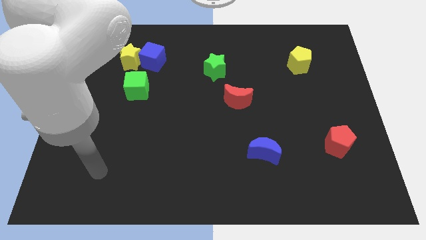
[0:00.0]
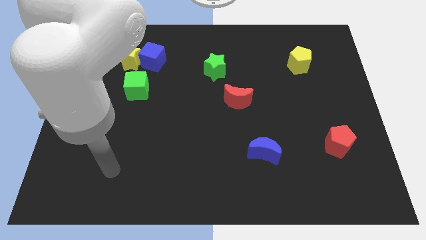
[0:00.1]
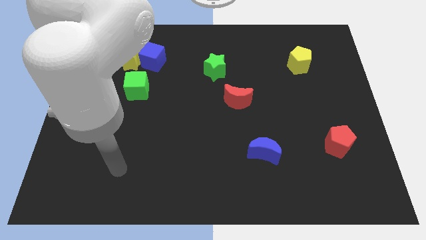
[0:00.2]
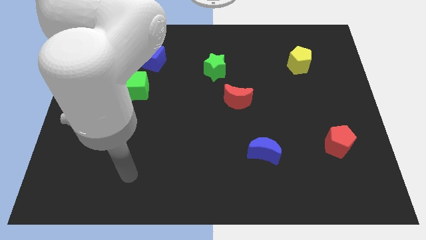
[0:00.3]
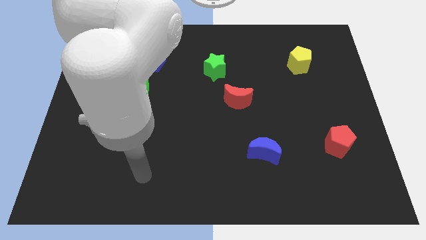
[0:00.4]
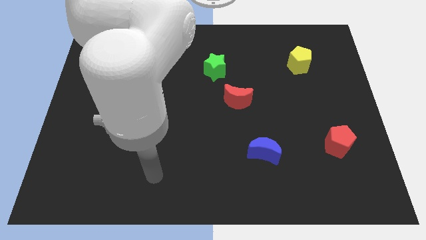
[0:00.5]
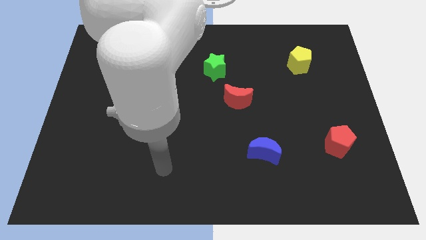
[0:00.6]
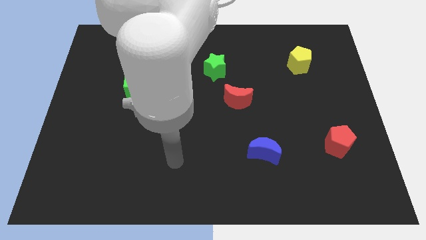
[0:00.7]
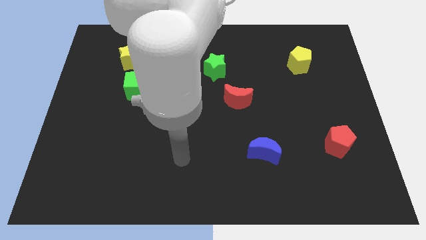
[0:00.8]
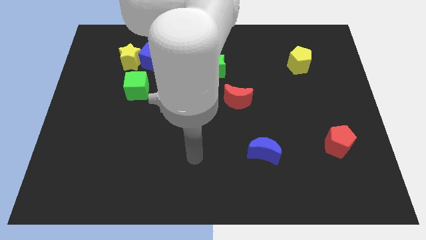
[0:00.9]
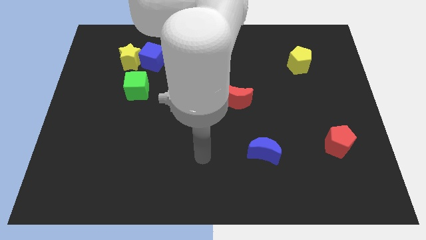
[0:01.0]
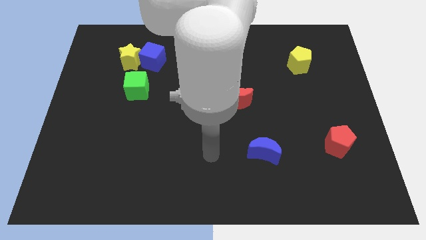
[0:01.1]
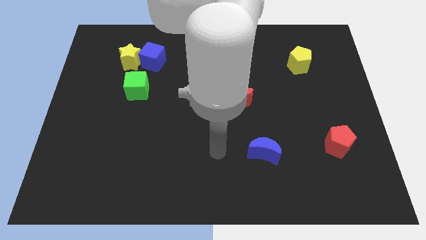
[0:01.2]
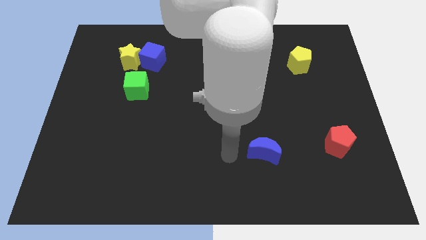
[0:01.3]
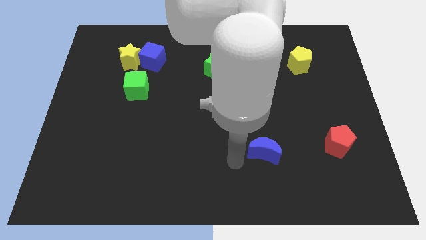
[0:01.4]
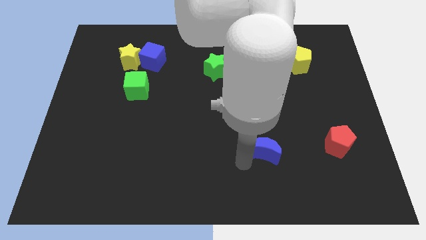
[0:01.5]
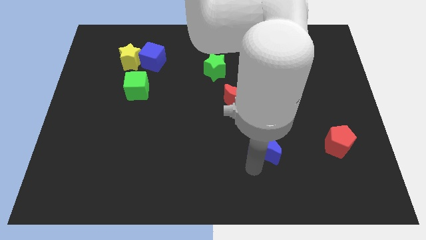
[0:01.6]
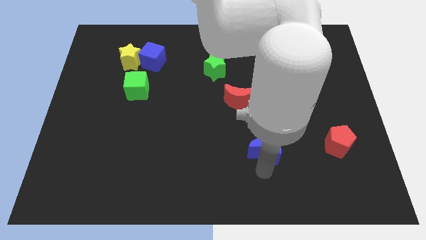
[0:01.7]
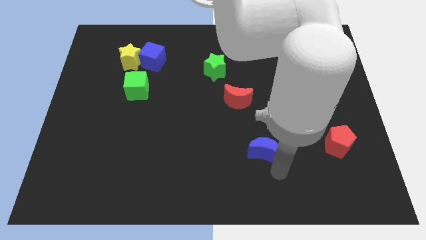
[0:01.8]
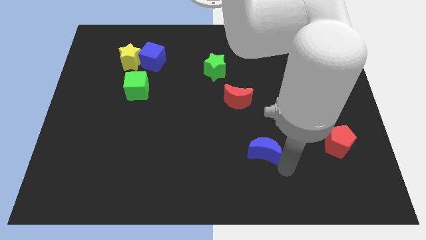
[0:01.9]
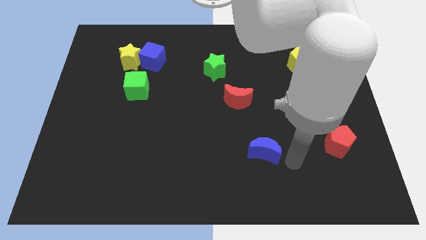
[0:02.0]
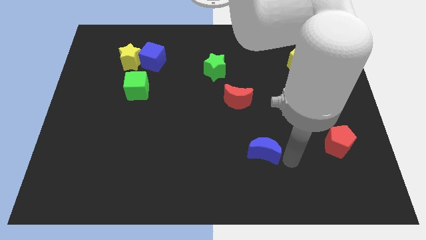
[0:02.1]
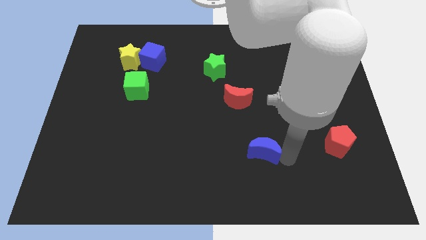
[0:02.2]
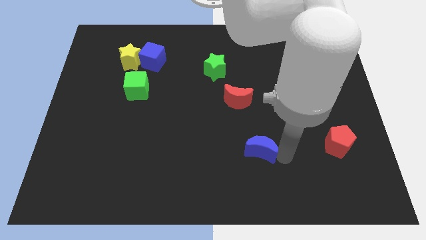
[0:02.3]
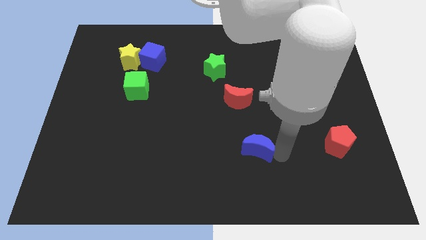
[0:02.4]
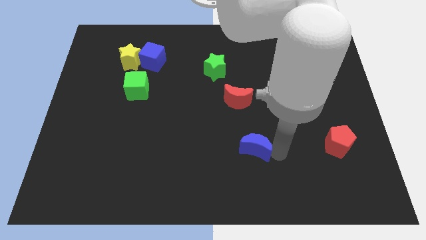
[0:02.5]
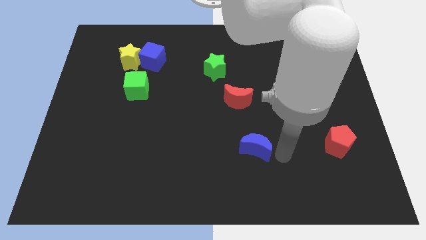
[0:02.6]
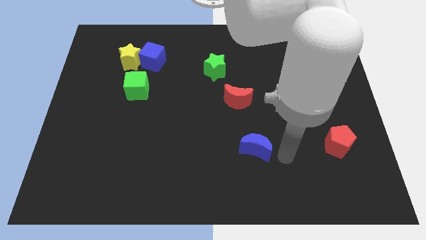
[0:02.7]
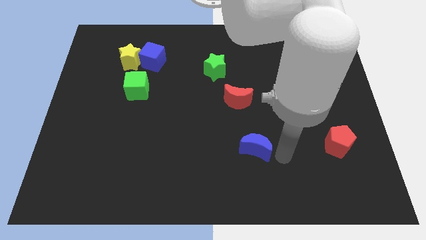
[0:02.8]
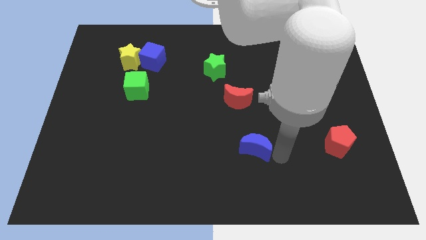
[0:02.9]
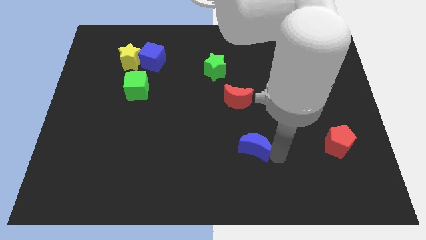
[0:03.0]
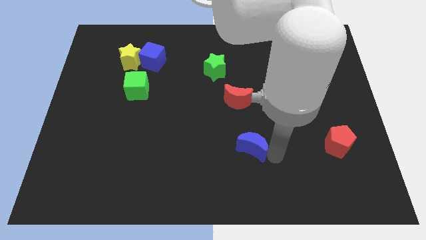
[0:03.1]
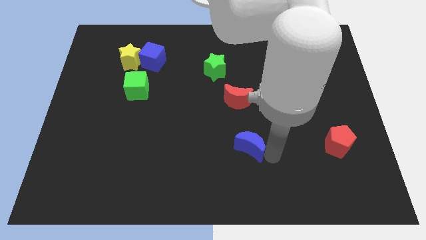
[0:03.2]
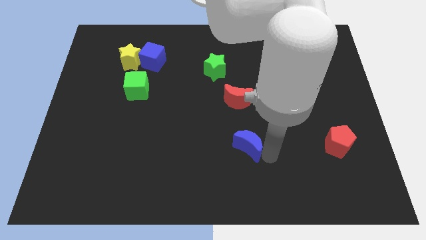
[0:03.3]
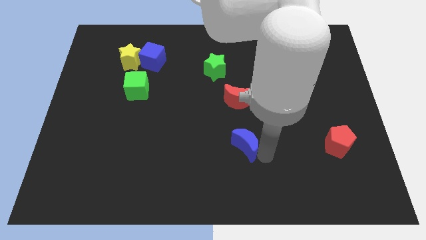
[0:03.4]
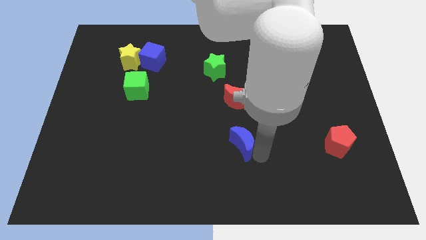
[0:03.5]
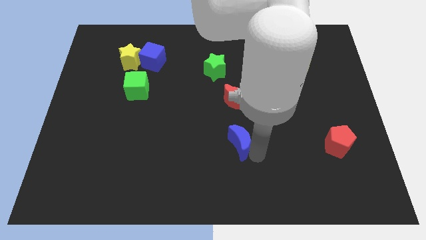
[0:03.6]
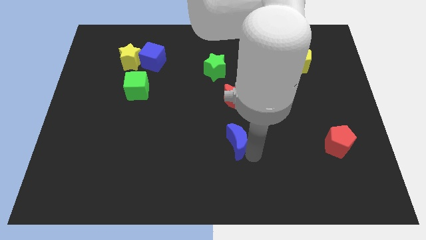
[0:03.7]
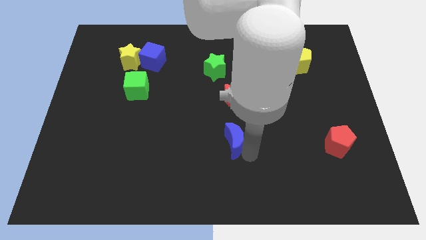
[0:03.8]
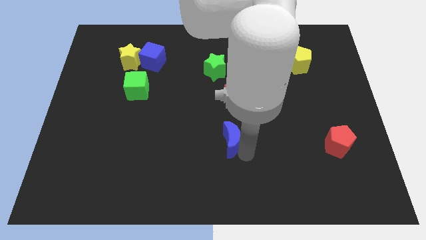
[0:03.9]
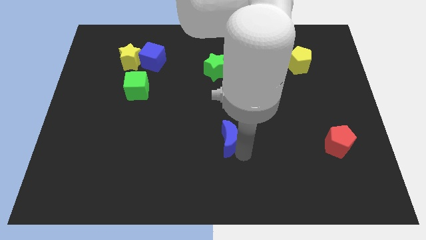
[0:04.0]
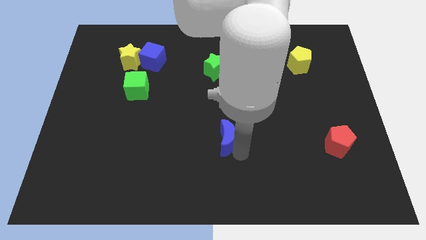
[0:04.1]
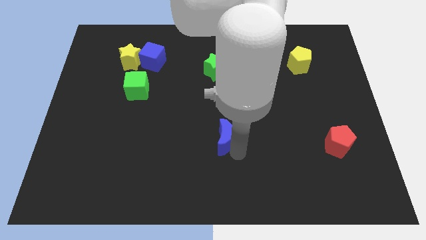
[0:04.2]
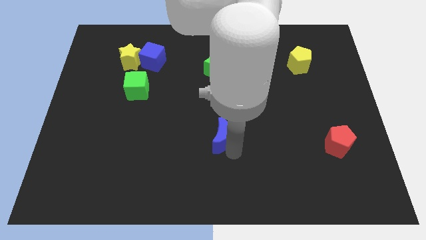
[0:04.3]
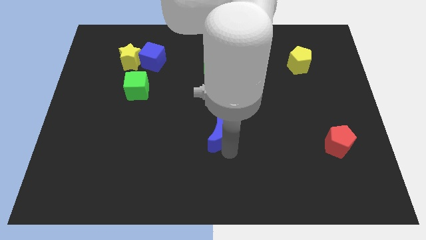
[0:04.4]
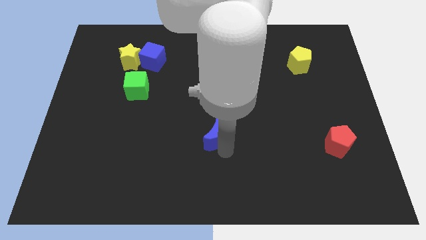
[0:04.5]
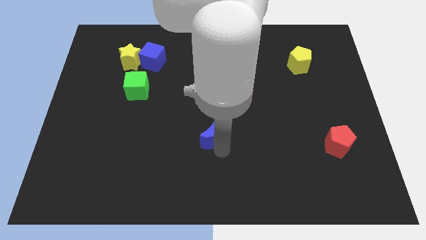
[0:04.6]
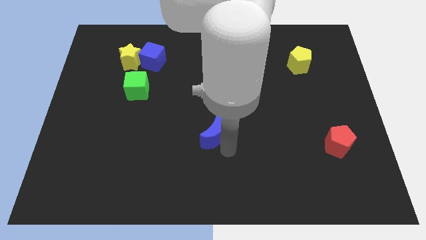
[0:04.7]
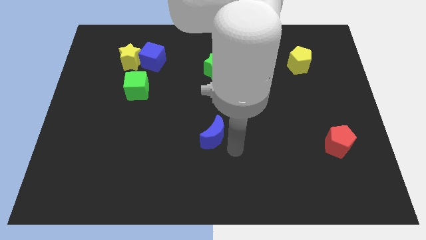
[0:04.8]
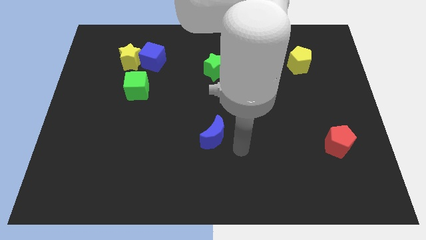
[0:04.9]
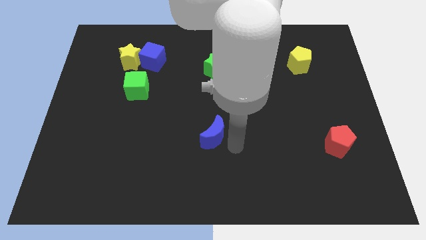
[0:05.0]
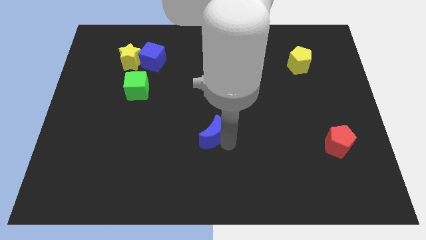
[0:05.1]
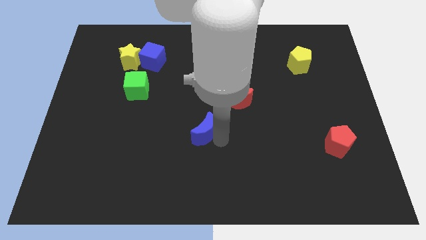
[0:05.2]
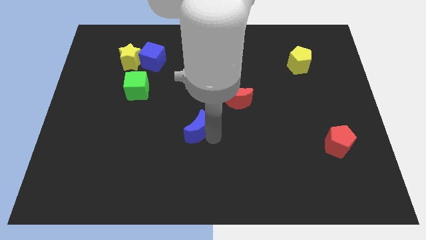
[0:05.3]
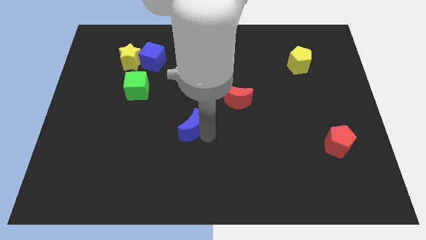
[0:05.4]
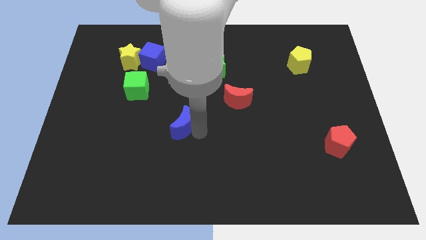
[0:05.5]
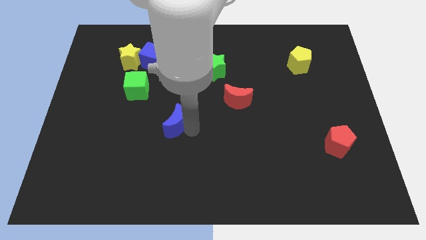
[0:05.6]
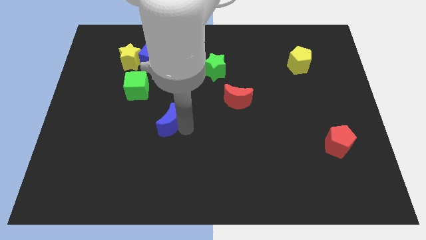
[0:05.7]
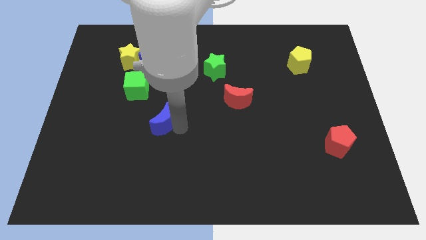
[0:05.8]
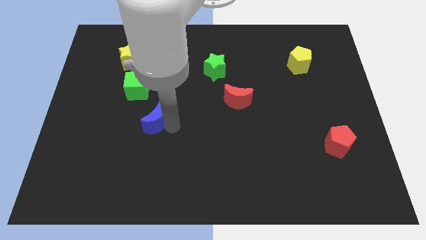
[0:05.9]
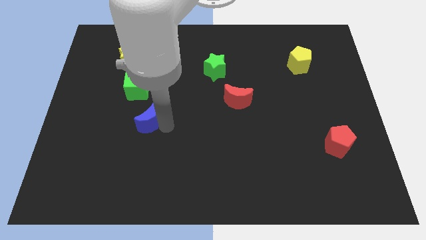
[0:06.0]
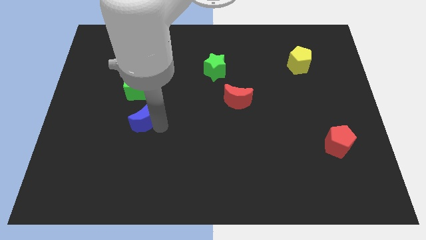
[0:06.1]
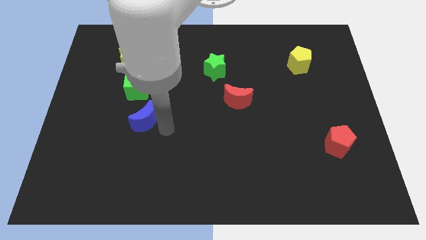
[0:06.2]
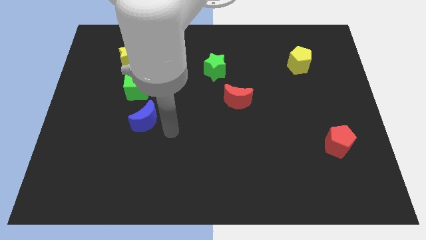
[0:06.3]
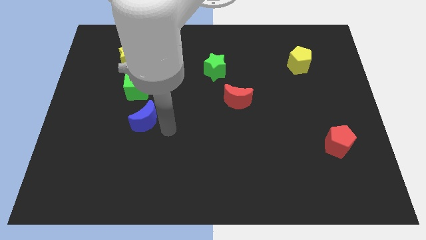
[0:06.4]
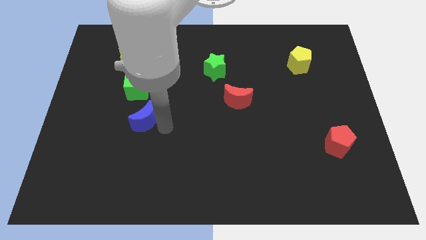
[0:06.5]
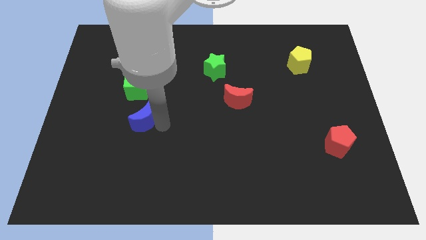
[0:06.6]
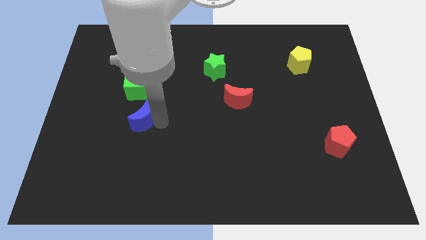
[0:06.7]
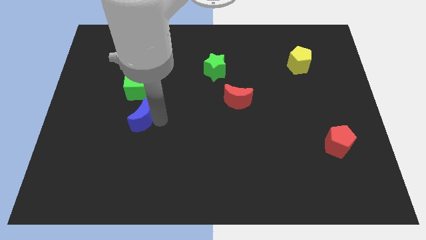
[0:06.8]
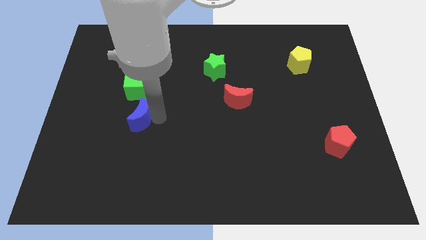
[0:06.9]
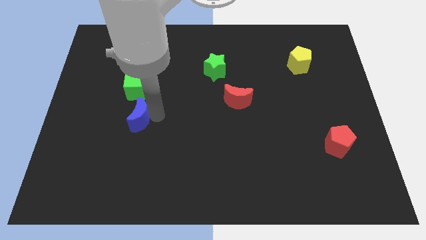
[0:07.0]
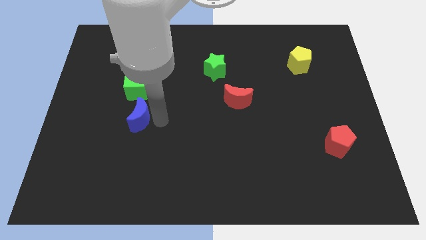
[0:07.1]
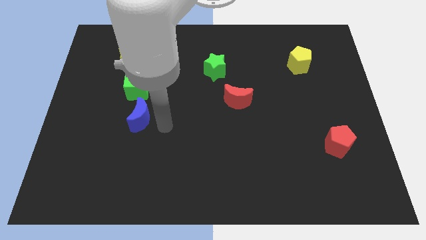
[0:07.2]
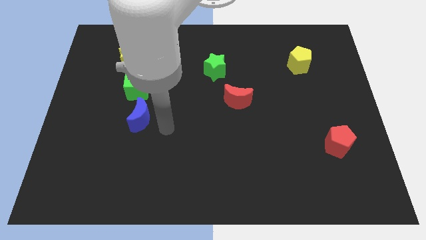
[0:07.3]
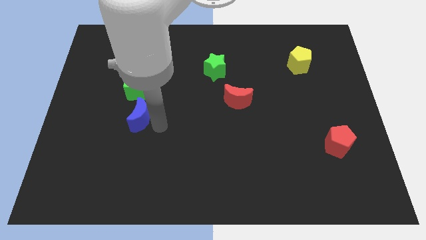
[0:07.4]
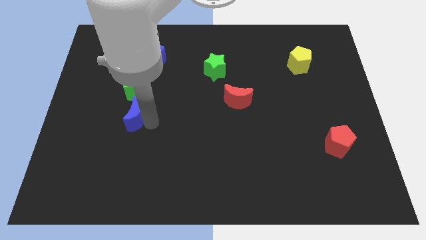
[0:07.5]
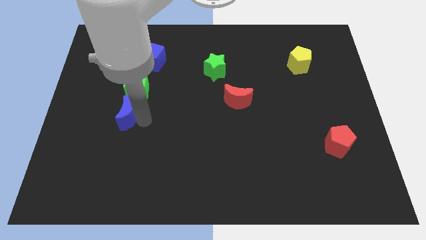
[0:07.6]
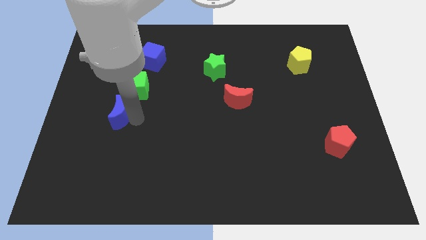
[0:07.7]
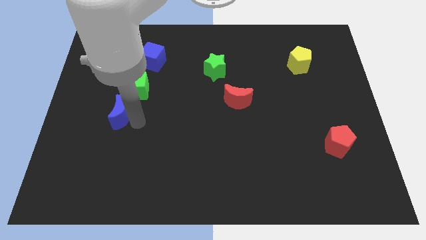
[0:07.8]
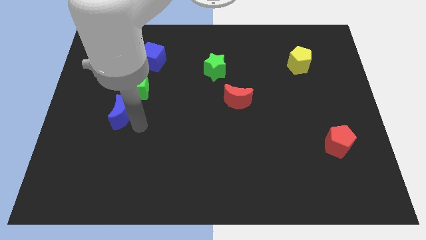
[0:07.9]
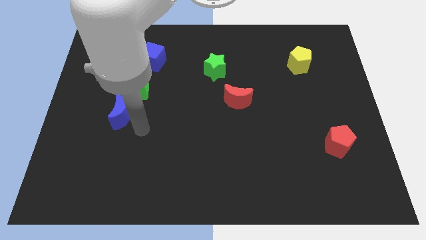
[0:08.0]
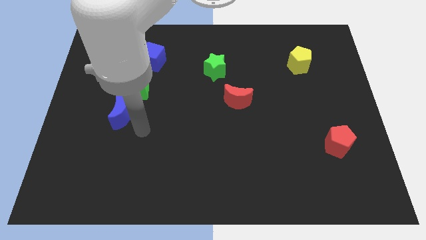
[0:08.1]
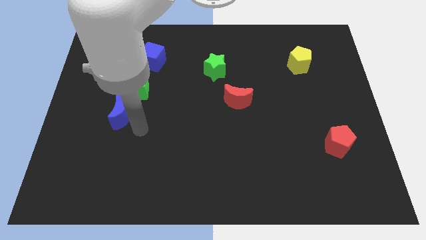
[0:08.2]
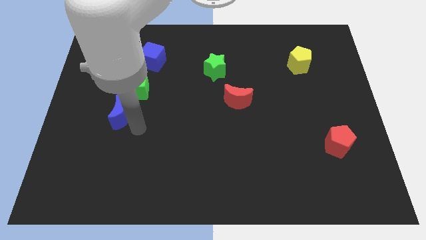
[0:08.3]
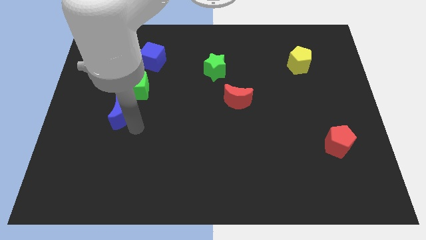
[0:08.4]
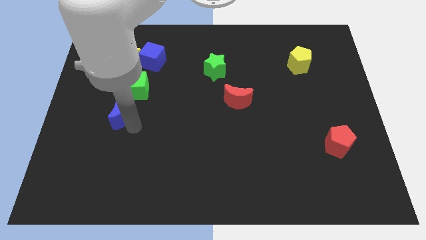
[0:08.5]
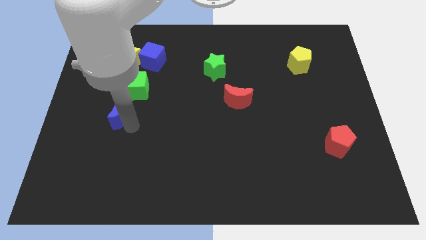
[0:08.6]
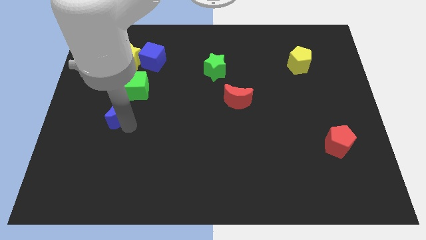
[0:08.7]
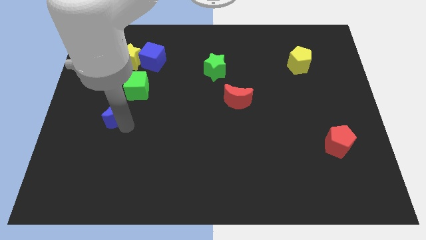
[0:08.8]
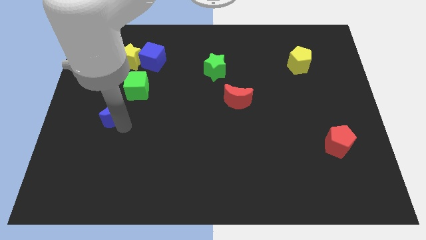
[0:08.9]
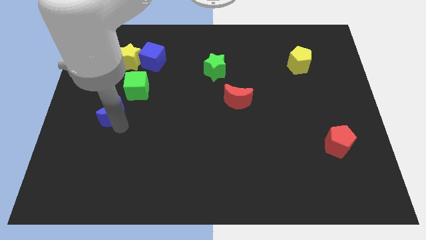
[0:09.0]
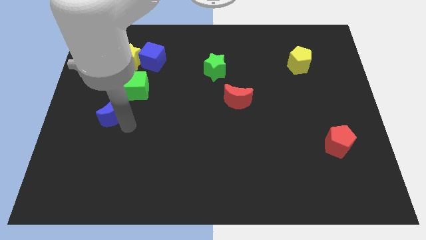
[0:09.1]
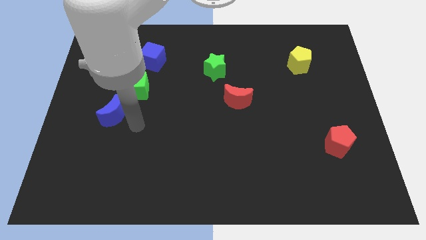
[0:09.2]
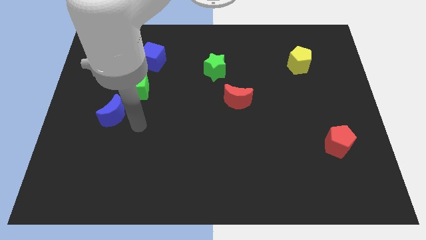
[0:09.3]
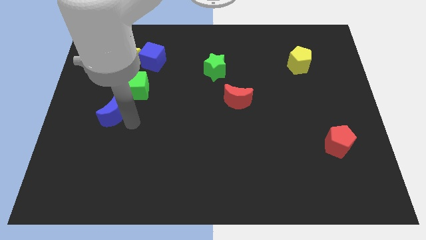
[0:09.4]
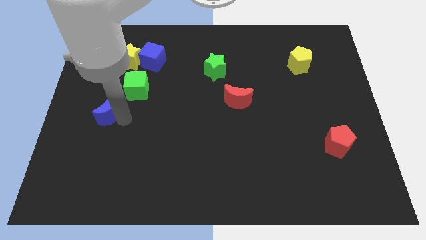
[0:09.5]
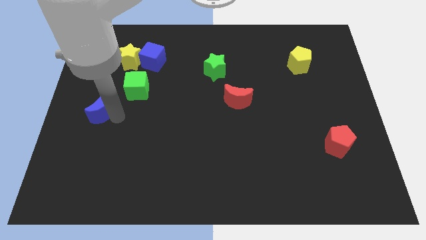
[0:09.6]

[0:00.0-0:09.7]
put the blue moon to the left side of the board
